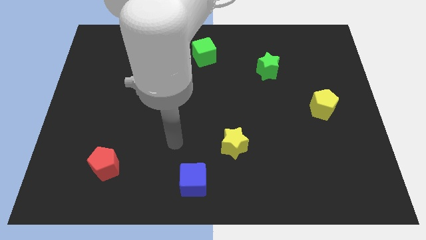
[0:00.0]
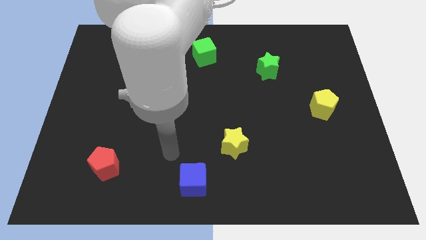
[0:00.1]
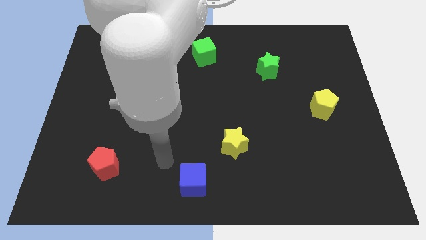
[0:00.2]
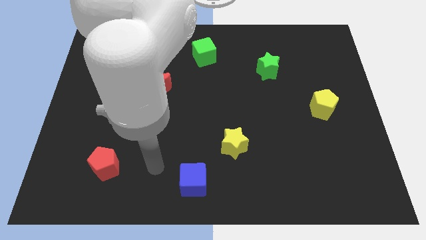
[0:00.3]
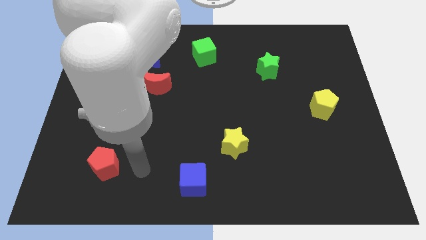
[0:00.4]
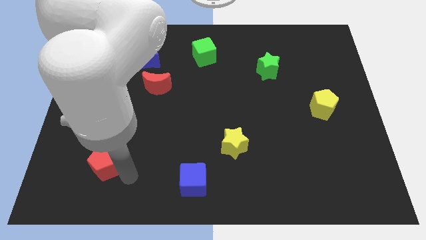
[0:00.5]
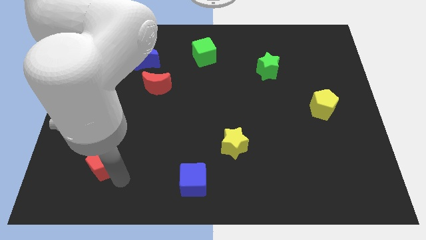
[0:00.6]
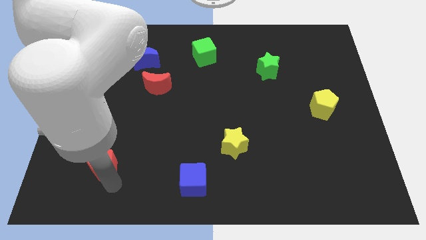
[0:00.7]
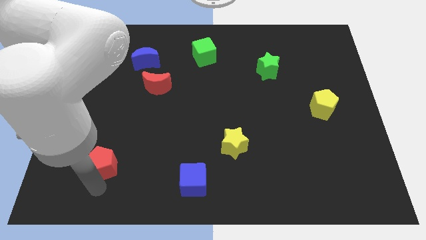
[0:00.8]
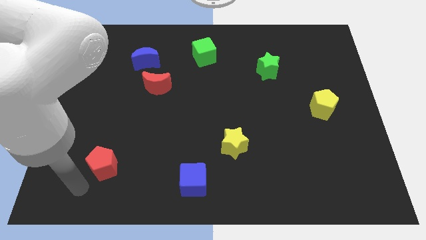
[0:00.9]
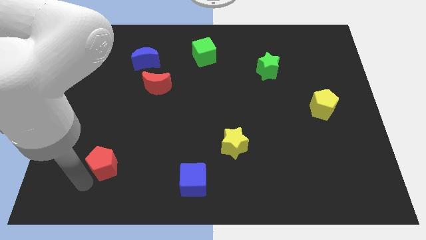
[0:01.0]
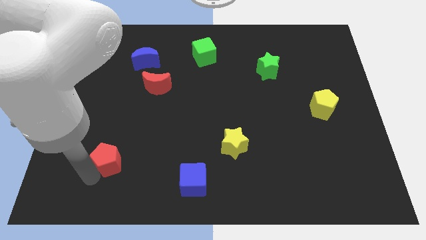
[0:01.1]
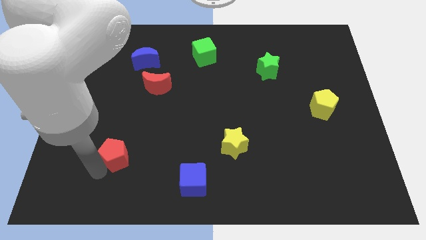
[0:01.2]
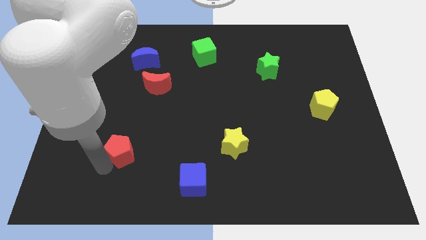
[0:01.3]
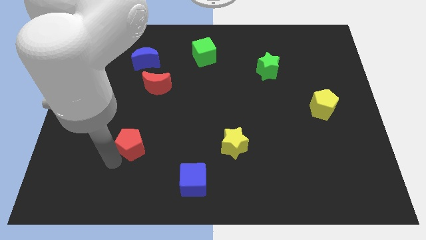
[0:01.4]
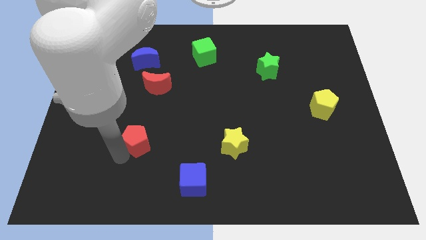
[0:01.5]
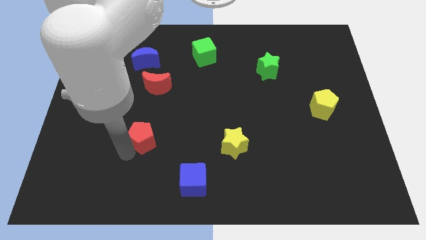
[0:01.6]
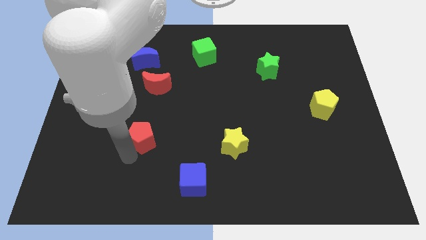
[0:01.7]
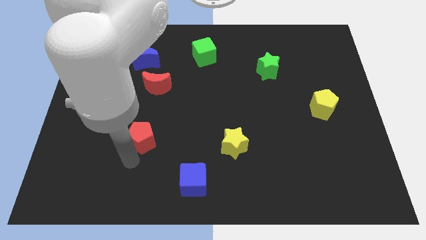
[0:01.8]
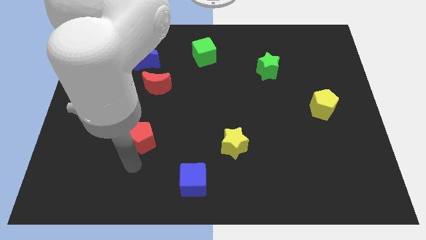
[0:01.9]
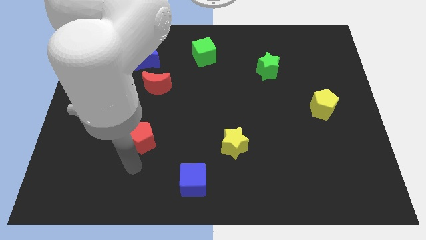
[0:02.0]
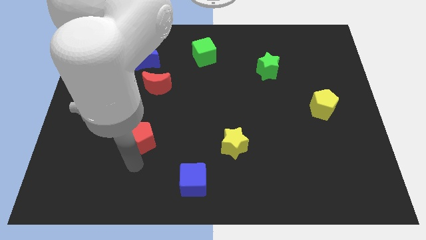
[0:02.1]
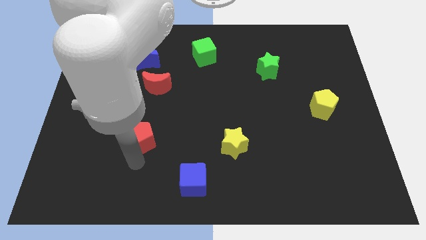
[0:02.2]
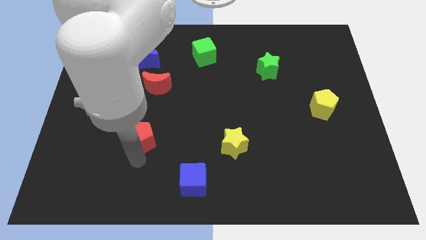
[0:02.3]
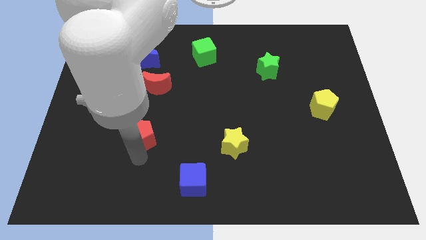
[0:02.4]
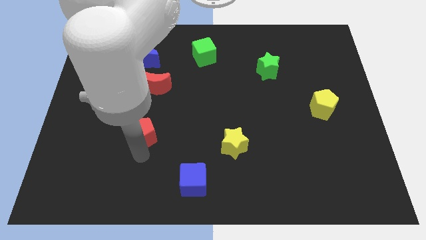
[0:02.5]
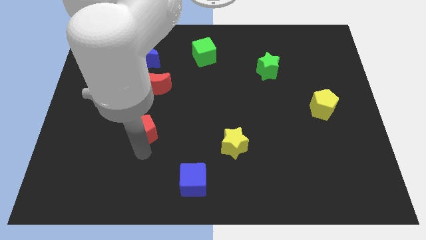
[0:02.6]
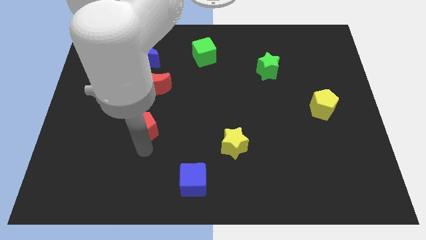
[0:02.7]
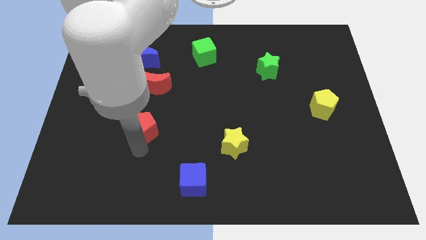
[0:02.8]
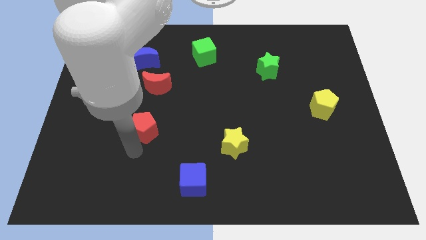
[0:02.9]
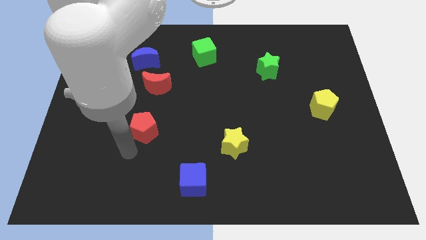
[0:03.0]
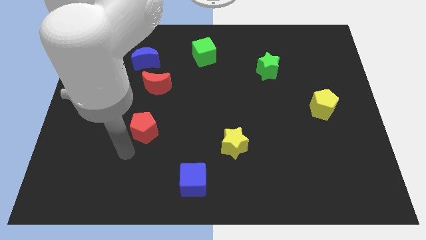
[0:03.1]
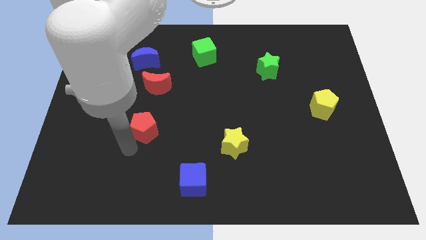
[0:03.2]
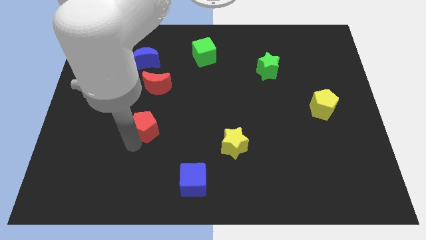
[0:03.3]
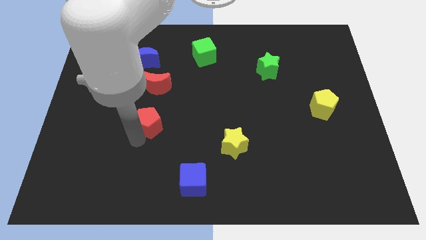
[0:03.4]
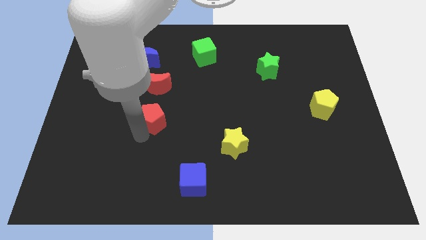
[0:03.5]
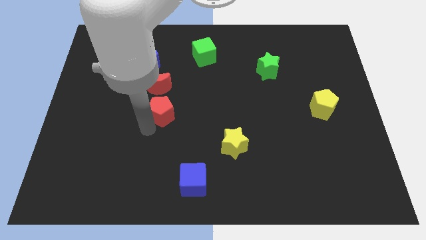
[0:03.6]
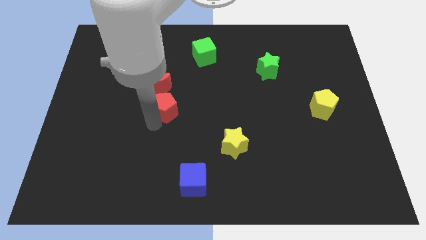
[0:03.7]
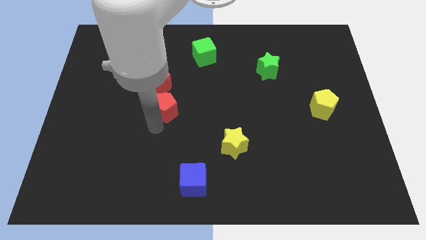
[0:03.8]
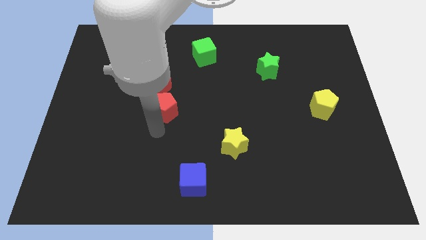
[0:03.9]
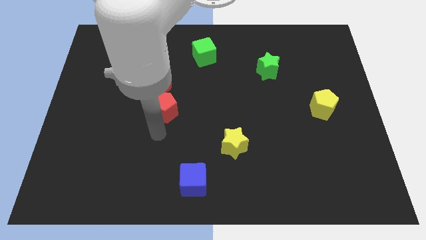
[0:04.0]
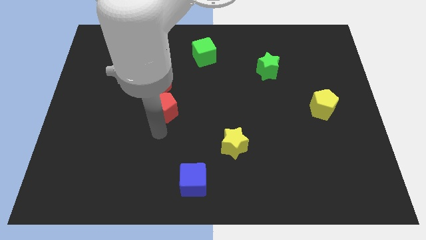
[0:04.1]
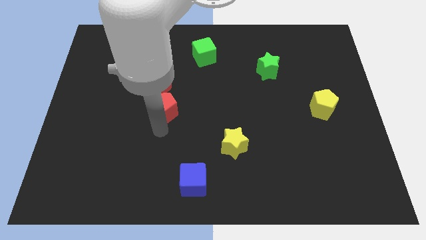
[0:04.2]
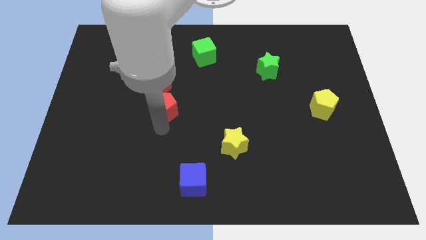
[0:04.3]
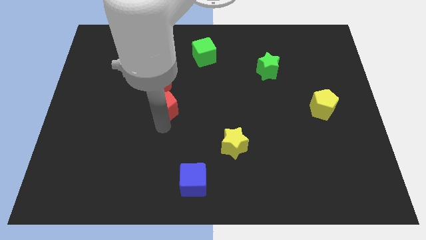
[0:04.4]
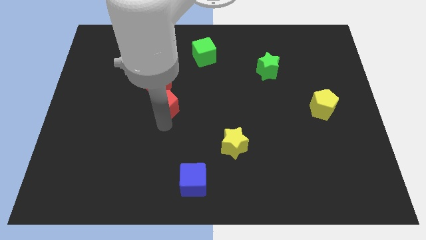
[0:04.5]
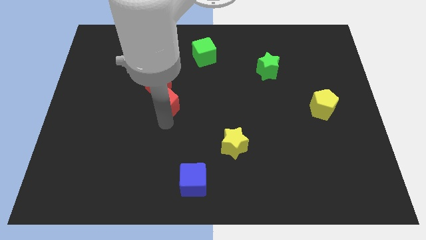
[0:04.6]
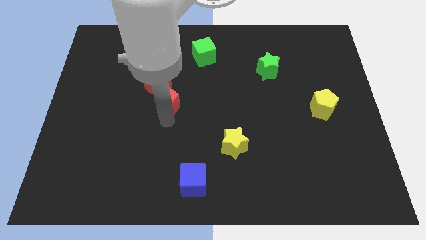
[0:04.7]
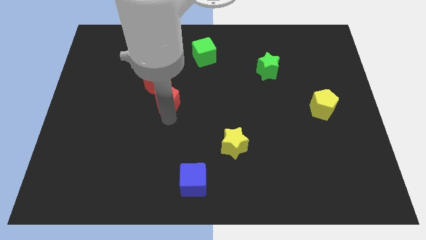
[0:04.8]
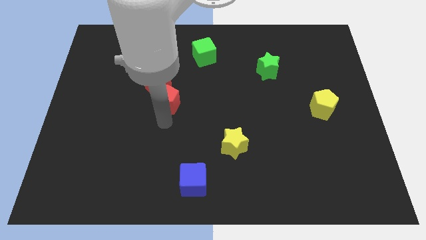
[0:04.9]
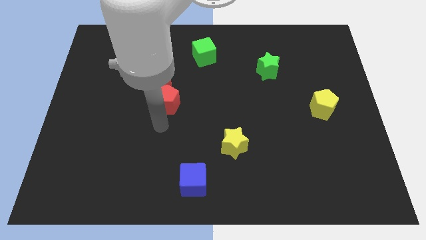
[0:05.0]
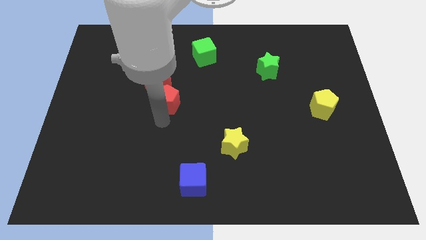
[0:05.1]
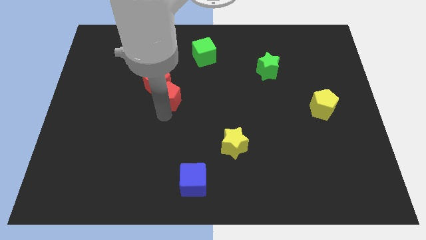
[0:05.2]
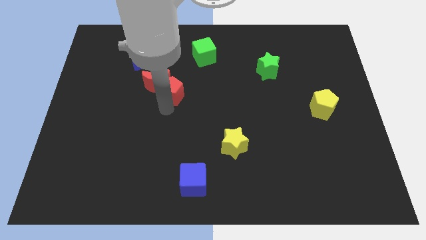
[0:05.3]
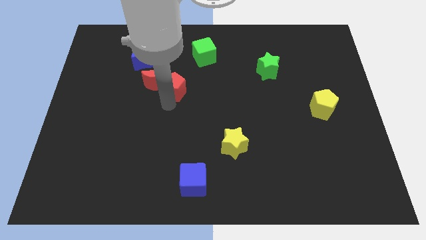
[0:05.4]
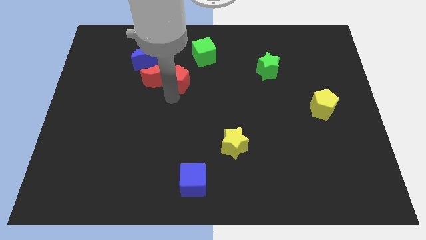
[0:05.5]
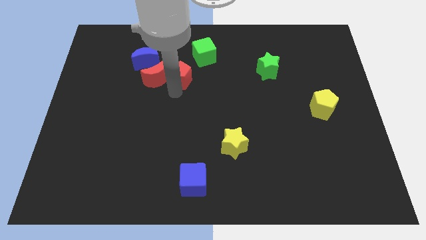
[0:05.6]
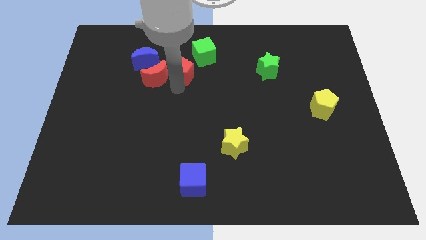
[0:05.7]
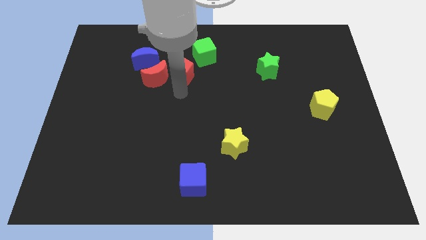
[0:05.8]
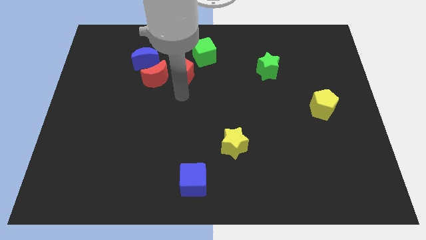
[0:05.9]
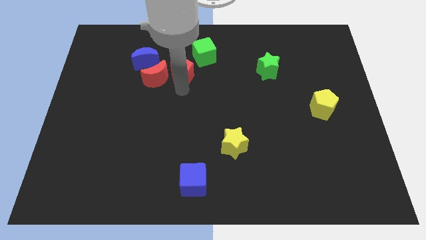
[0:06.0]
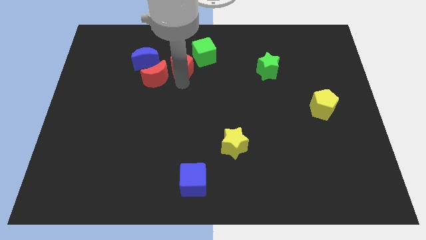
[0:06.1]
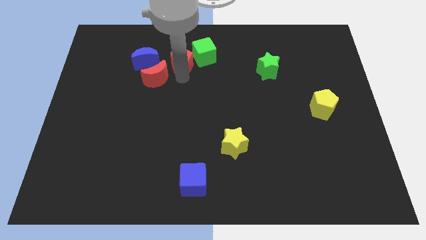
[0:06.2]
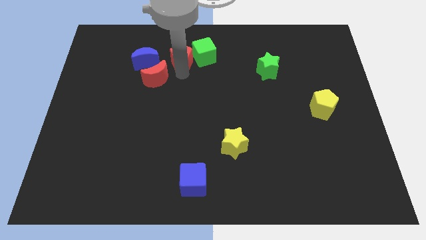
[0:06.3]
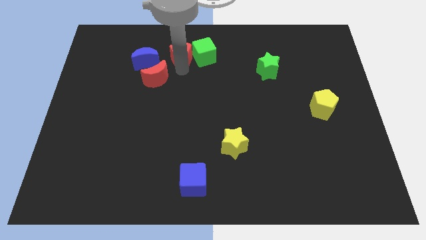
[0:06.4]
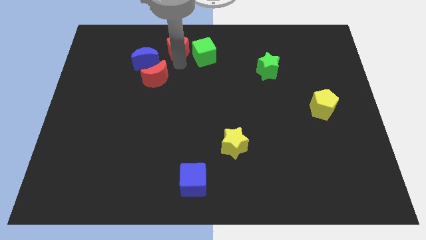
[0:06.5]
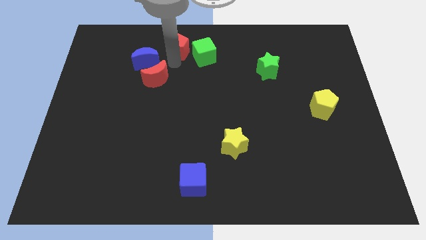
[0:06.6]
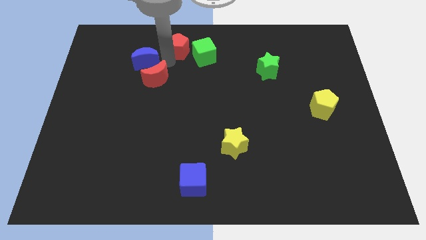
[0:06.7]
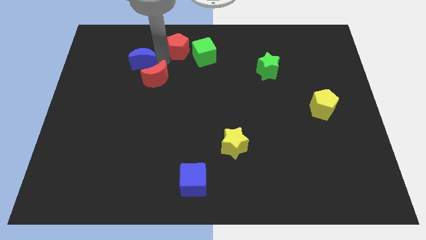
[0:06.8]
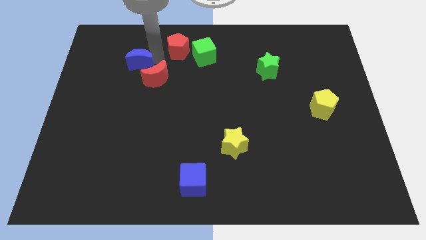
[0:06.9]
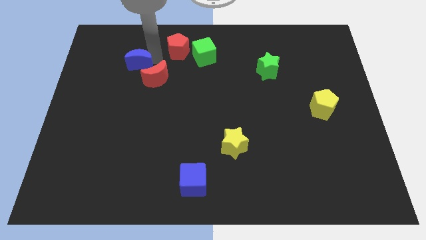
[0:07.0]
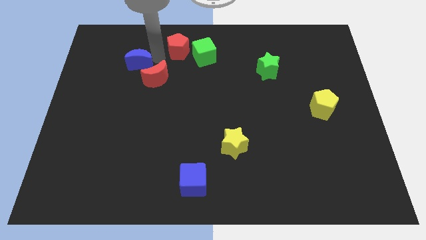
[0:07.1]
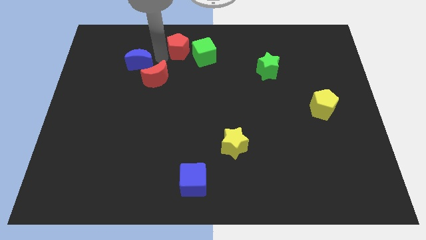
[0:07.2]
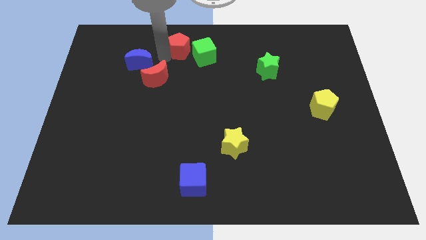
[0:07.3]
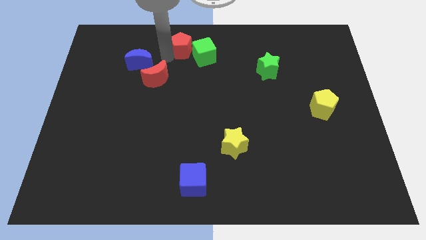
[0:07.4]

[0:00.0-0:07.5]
move the red pentagon to the top
